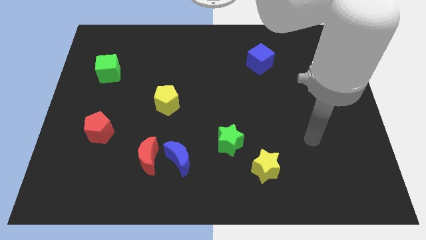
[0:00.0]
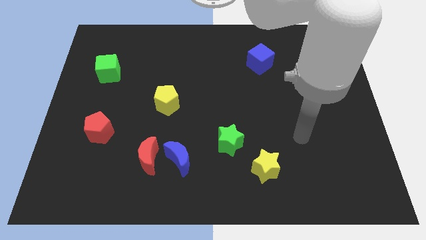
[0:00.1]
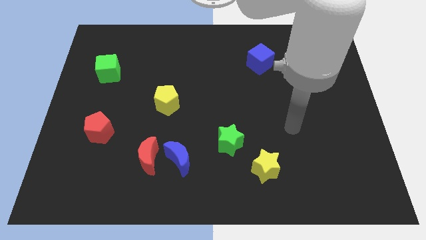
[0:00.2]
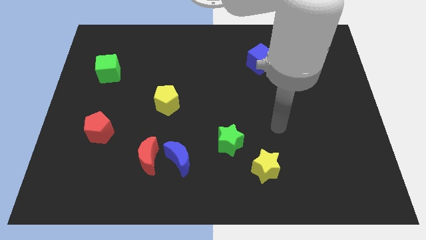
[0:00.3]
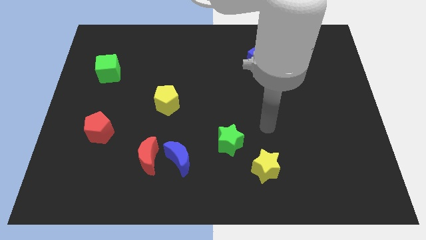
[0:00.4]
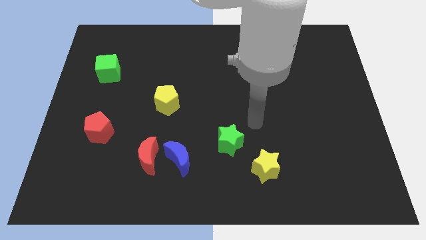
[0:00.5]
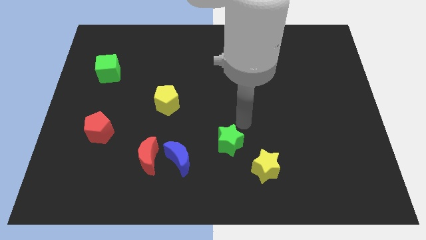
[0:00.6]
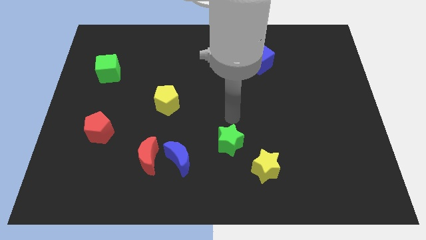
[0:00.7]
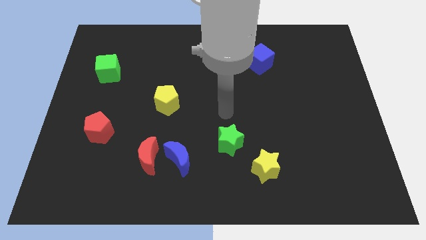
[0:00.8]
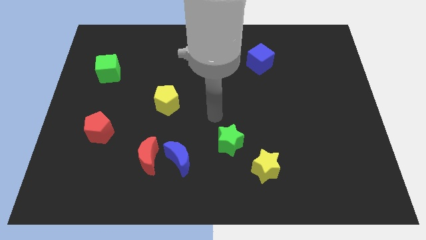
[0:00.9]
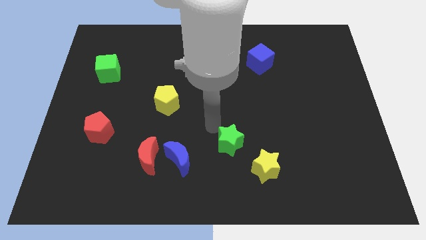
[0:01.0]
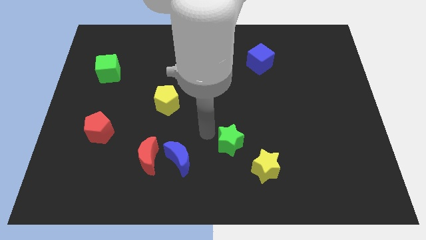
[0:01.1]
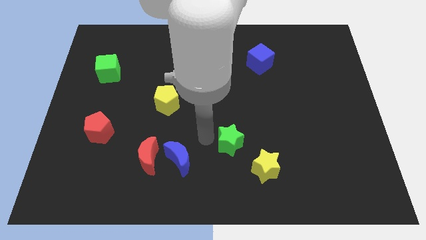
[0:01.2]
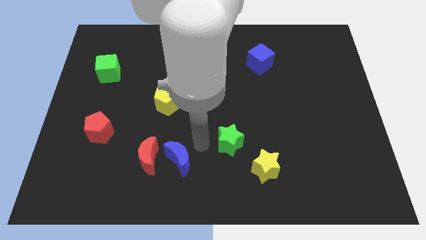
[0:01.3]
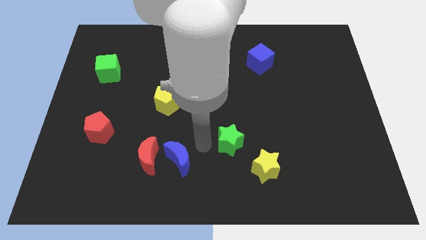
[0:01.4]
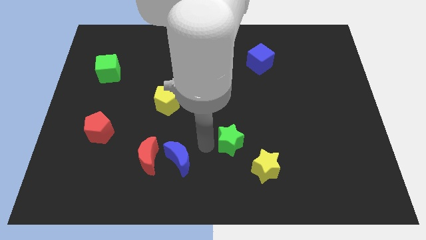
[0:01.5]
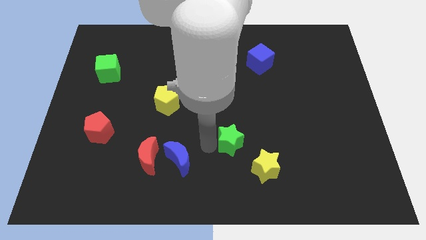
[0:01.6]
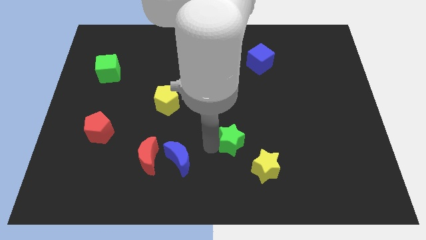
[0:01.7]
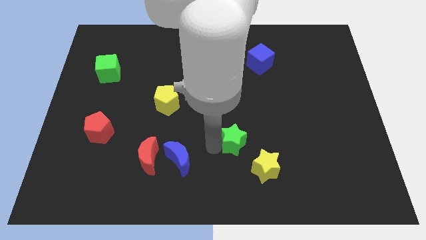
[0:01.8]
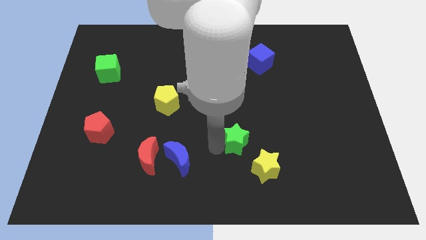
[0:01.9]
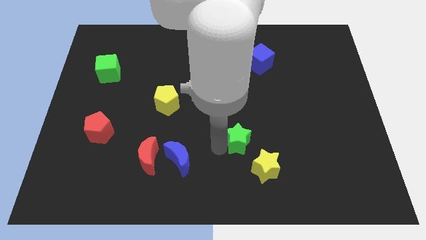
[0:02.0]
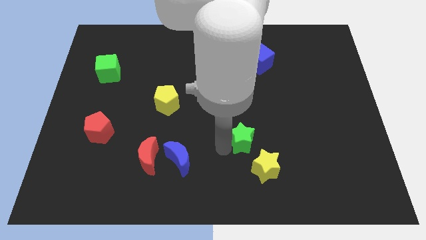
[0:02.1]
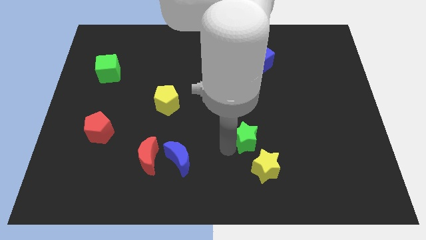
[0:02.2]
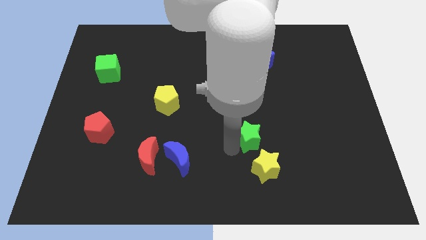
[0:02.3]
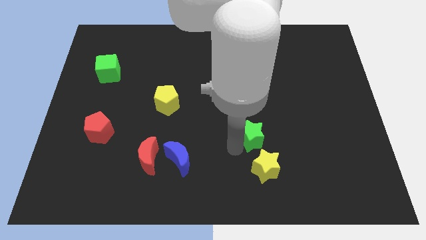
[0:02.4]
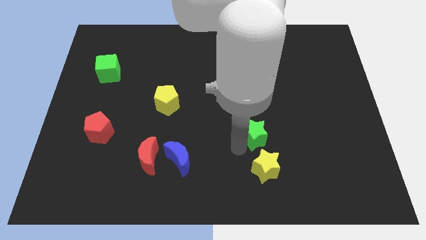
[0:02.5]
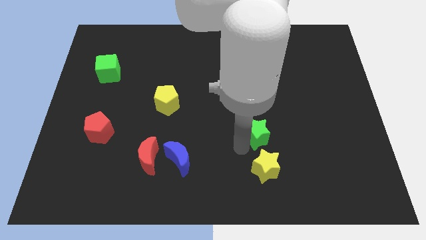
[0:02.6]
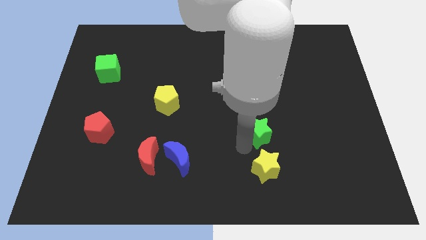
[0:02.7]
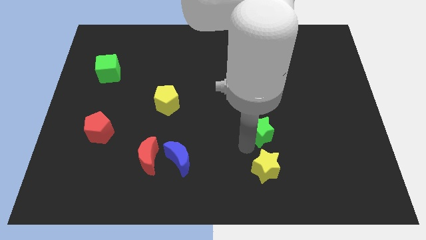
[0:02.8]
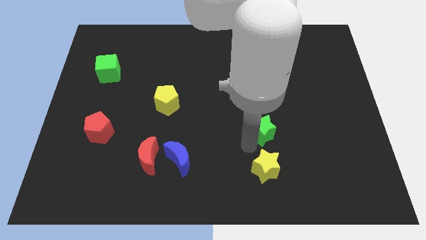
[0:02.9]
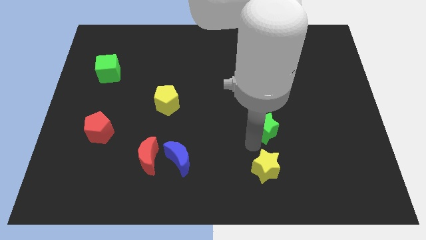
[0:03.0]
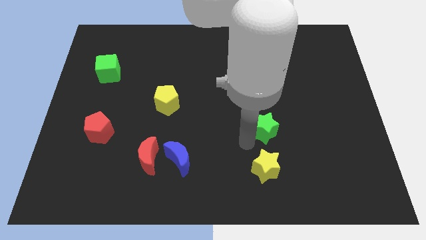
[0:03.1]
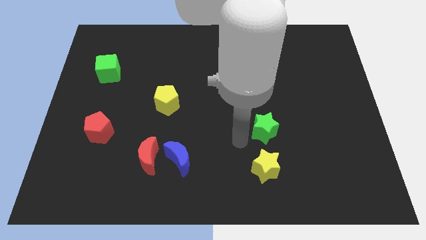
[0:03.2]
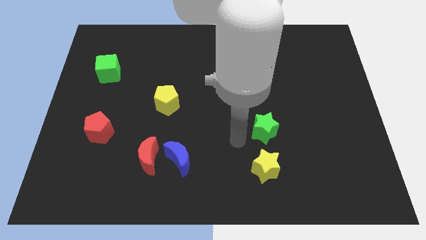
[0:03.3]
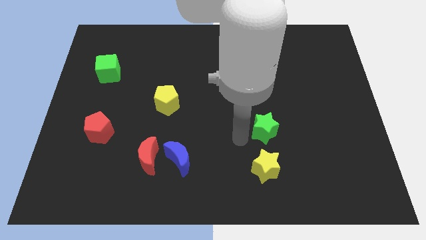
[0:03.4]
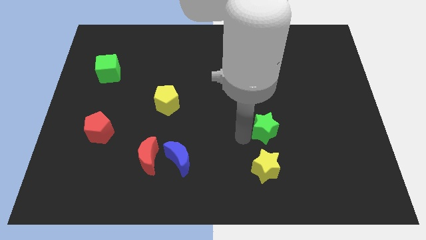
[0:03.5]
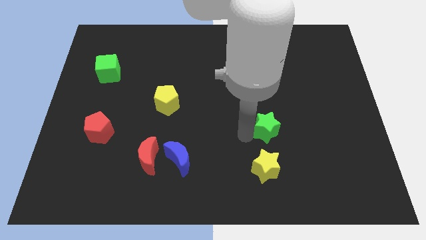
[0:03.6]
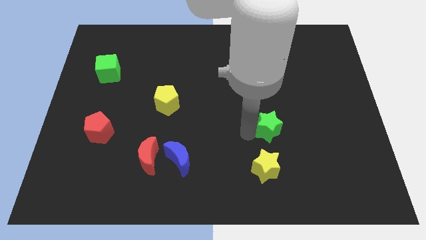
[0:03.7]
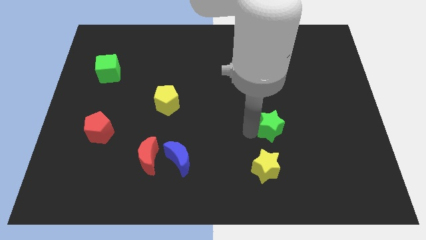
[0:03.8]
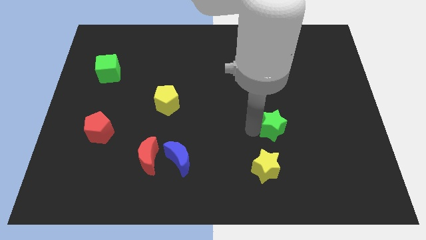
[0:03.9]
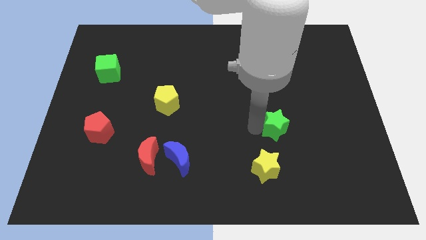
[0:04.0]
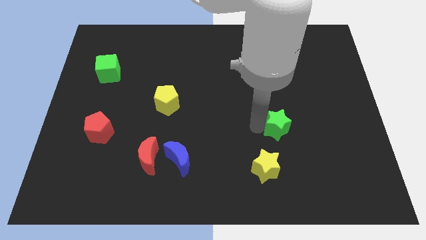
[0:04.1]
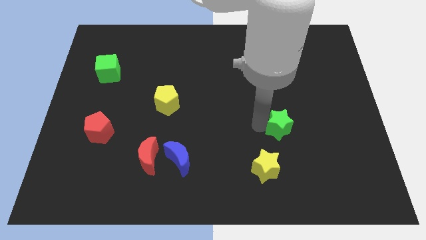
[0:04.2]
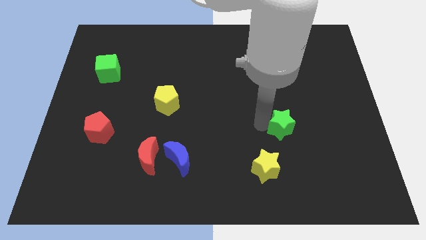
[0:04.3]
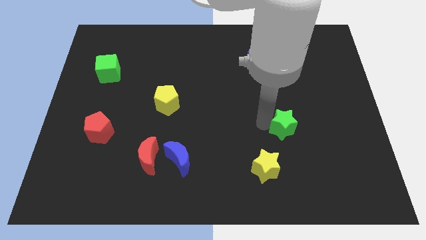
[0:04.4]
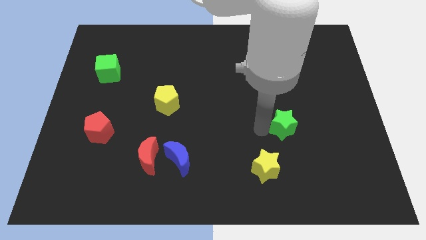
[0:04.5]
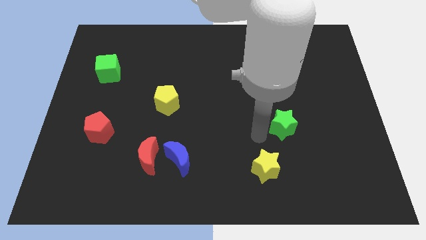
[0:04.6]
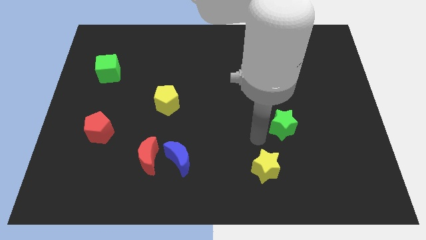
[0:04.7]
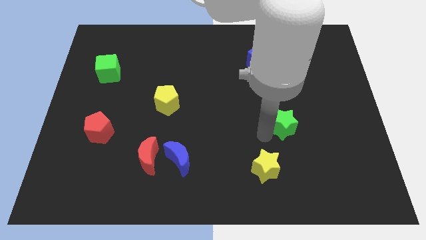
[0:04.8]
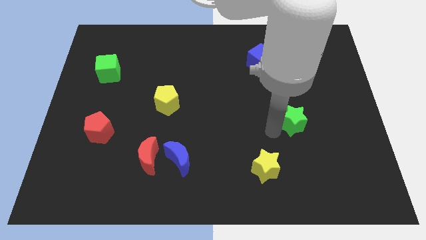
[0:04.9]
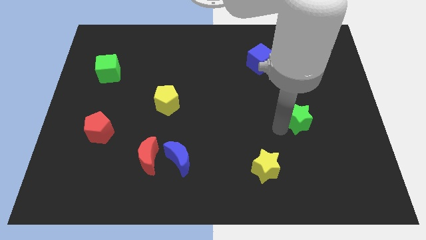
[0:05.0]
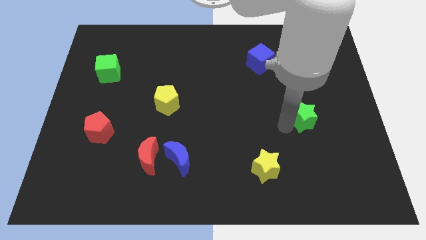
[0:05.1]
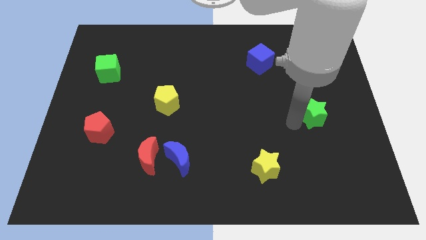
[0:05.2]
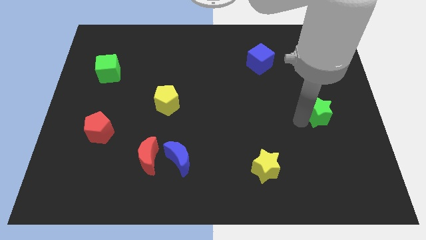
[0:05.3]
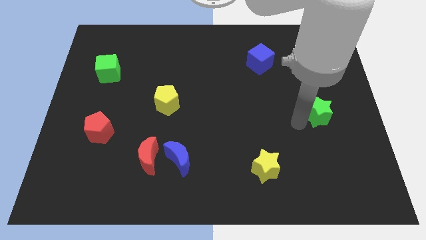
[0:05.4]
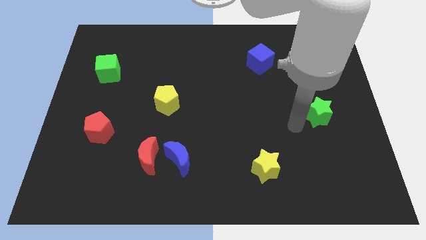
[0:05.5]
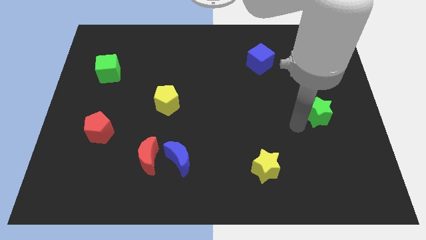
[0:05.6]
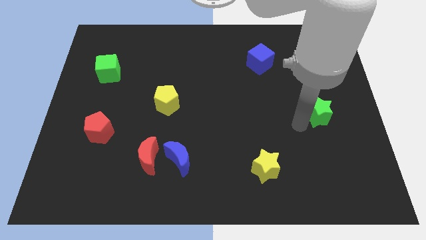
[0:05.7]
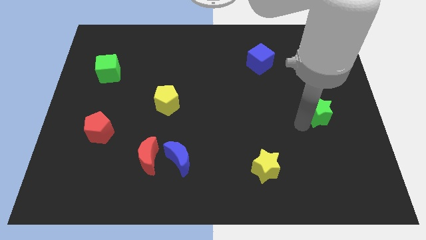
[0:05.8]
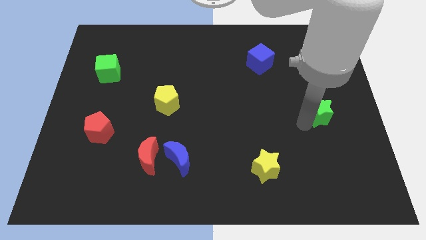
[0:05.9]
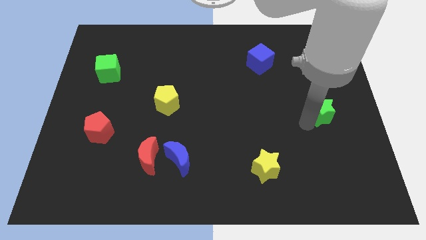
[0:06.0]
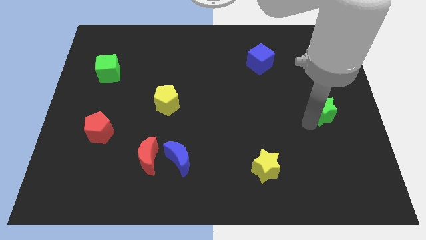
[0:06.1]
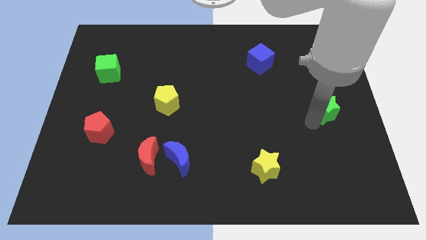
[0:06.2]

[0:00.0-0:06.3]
push the green star to the center right
